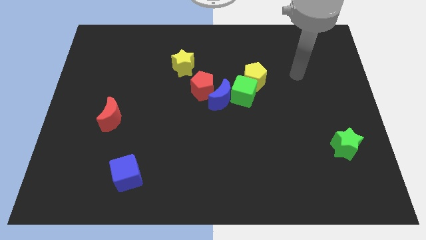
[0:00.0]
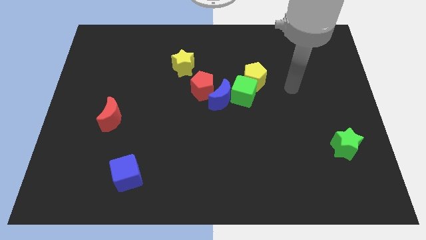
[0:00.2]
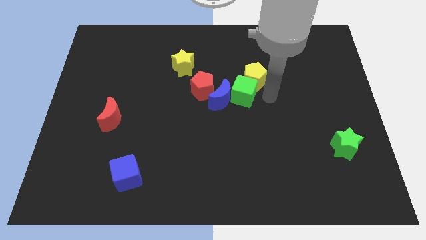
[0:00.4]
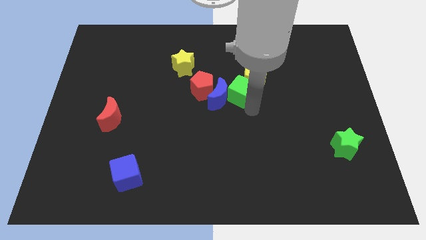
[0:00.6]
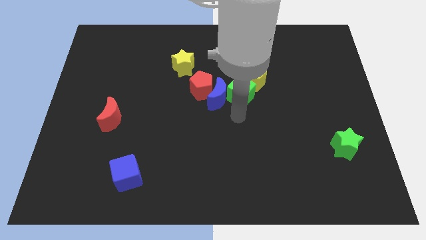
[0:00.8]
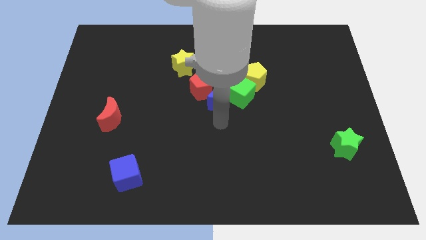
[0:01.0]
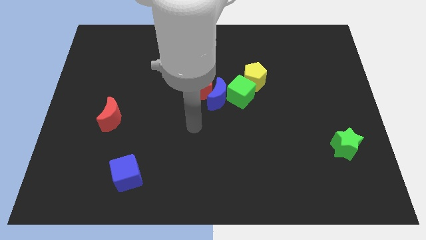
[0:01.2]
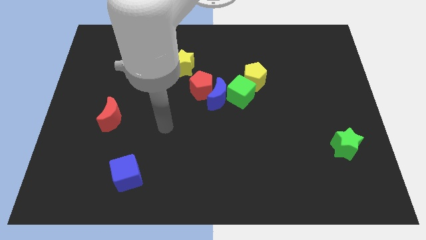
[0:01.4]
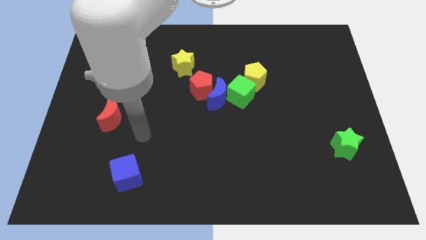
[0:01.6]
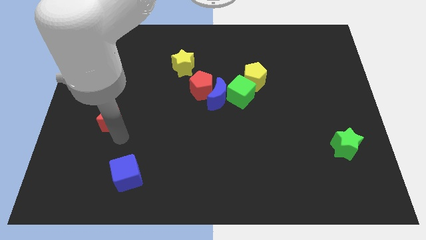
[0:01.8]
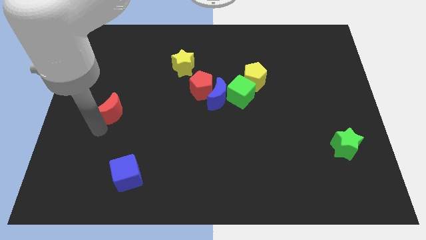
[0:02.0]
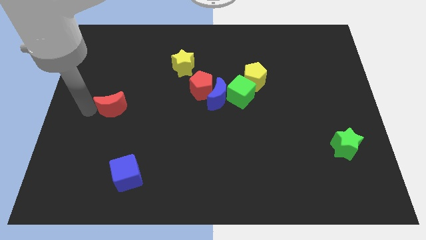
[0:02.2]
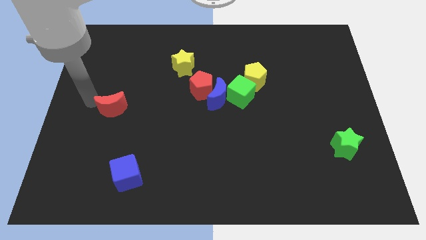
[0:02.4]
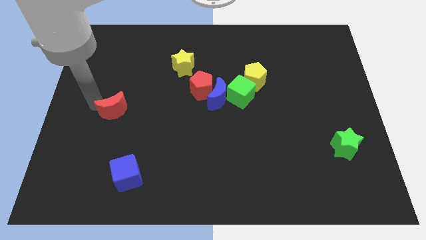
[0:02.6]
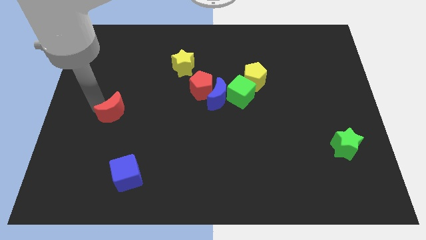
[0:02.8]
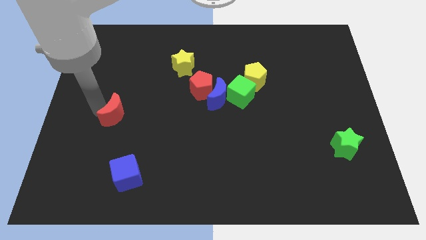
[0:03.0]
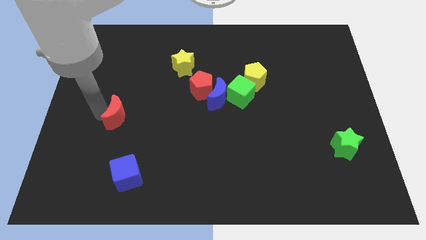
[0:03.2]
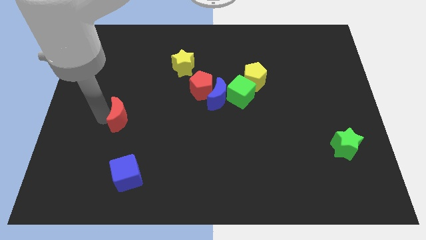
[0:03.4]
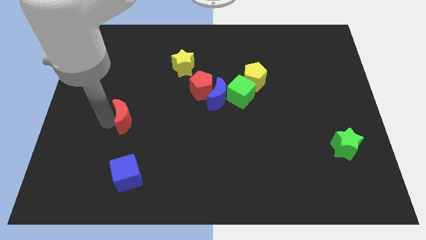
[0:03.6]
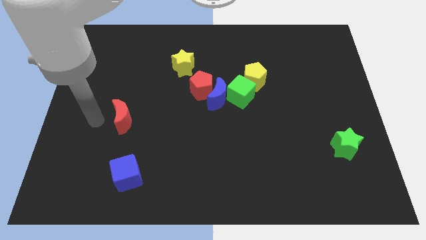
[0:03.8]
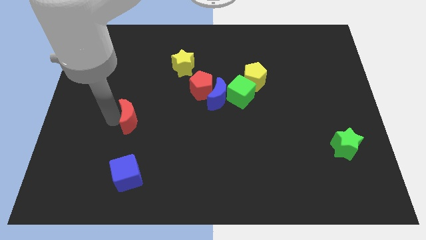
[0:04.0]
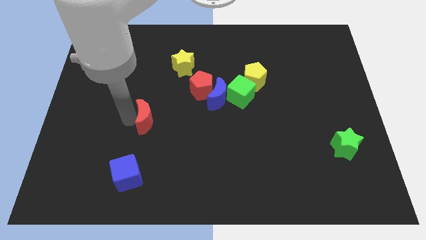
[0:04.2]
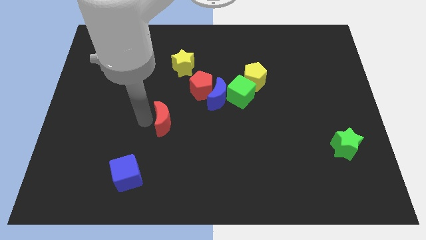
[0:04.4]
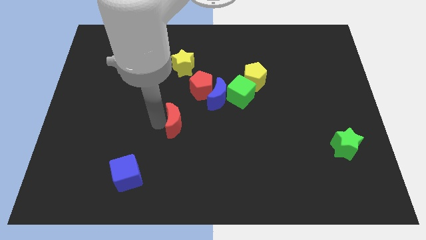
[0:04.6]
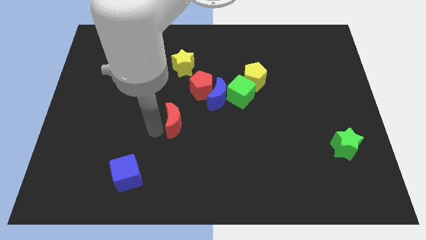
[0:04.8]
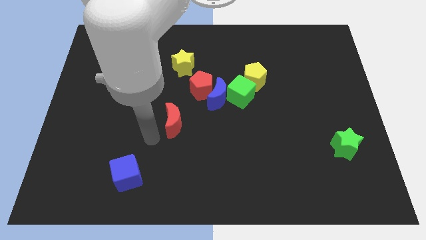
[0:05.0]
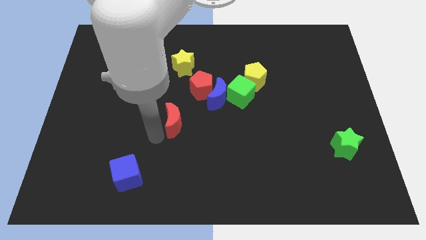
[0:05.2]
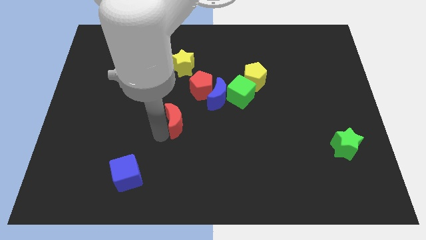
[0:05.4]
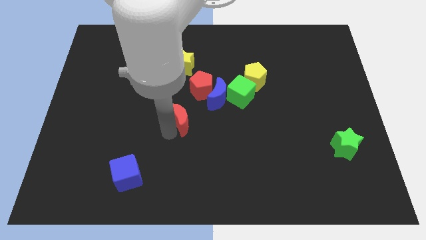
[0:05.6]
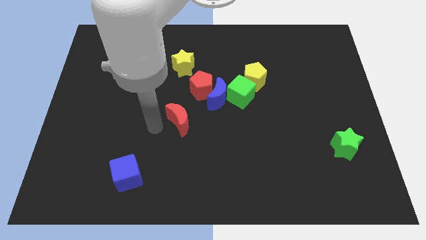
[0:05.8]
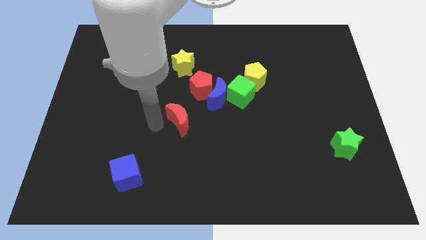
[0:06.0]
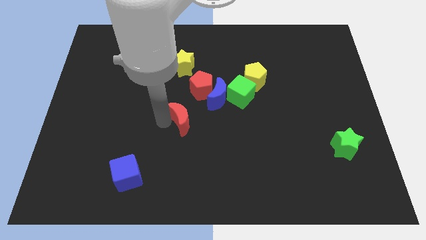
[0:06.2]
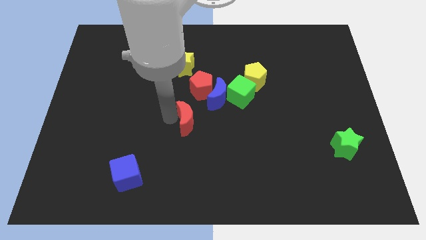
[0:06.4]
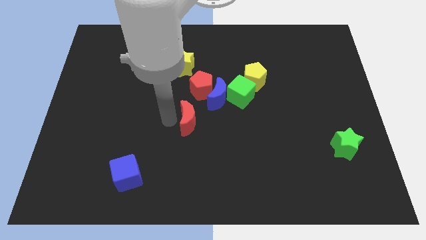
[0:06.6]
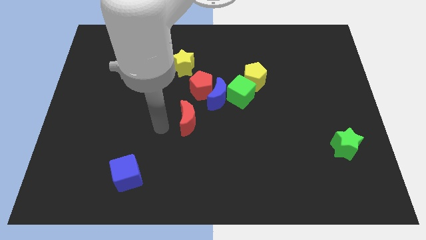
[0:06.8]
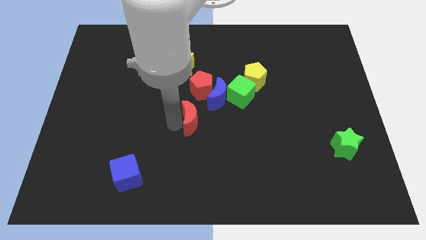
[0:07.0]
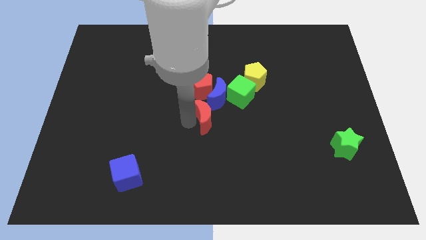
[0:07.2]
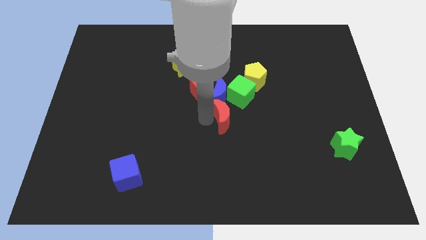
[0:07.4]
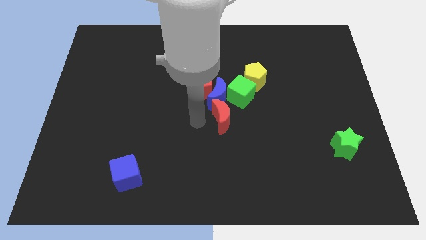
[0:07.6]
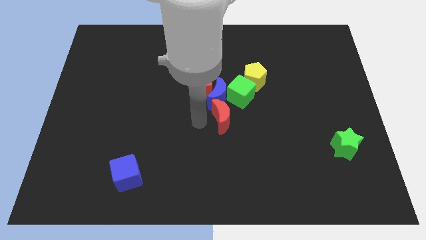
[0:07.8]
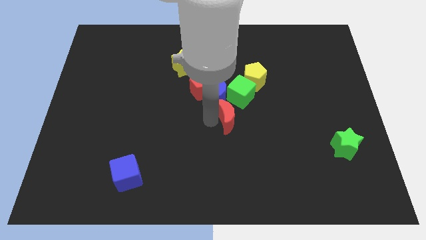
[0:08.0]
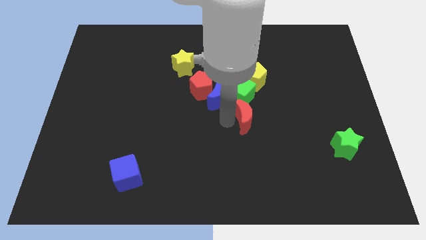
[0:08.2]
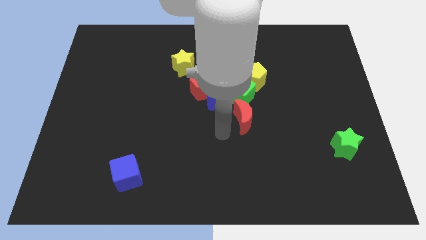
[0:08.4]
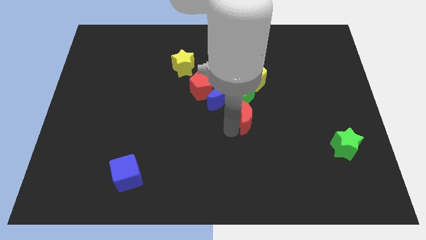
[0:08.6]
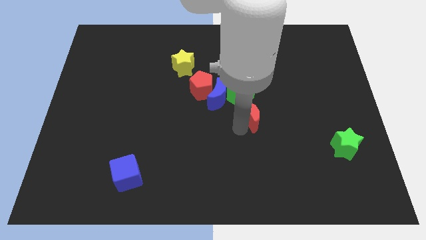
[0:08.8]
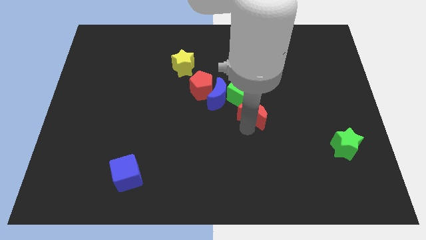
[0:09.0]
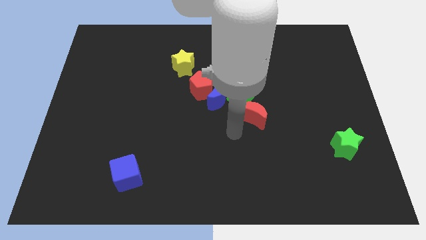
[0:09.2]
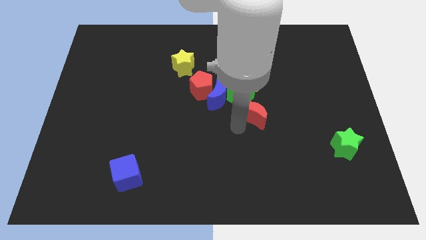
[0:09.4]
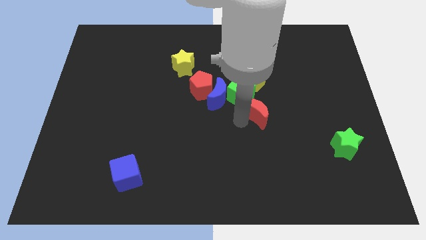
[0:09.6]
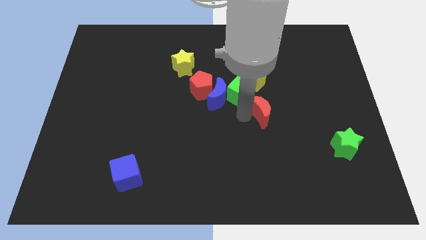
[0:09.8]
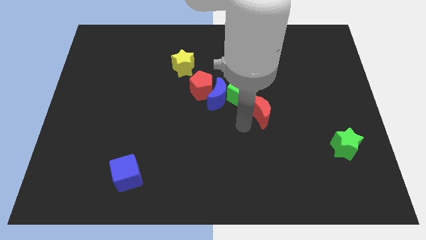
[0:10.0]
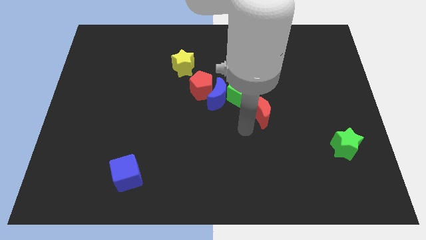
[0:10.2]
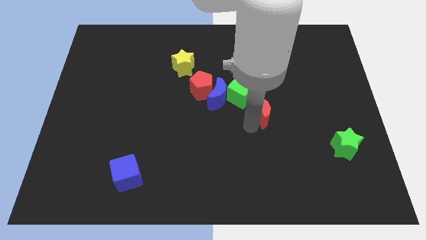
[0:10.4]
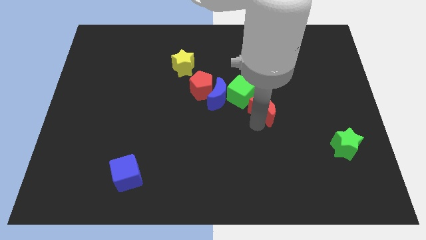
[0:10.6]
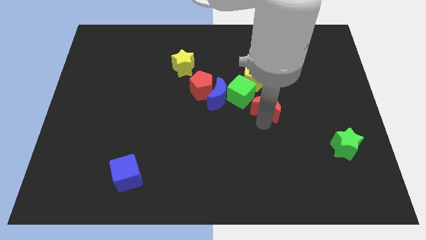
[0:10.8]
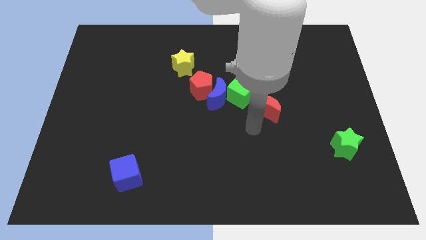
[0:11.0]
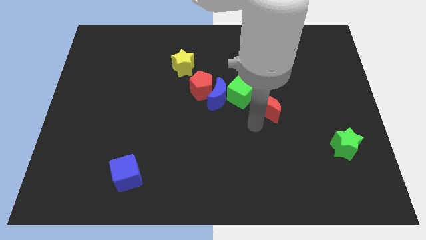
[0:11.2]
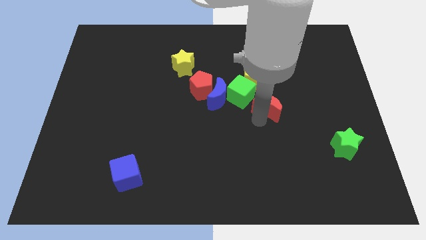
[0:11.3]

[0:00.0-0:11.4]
slide the red moon diagonally down and to the right of the yellow pentagon

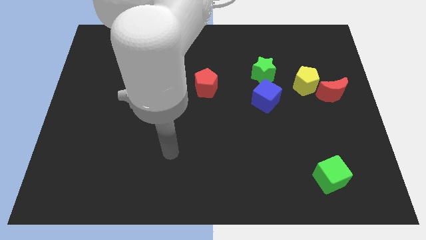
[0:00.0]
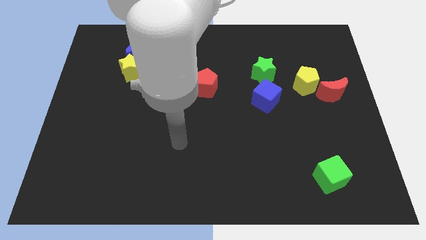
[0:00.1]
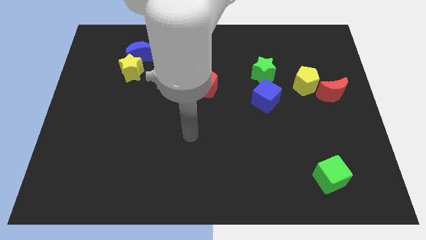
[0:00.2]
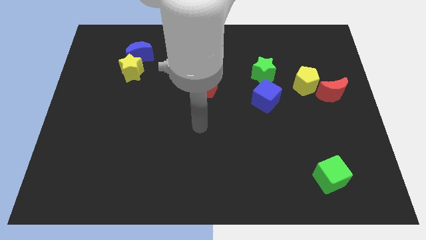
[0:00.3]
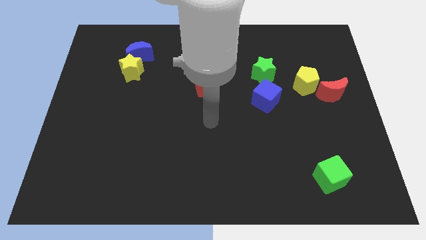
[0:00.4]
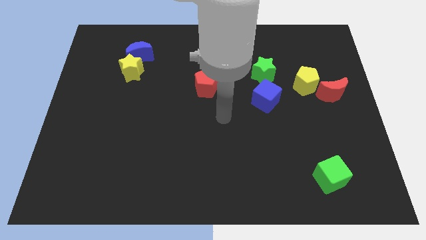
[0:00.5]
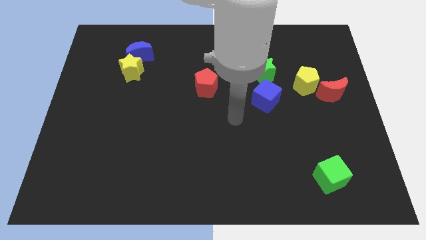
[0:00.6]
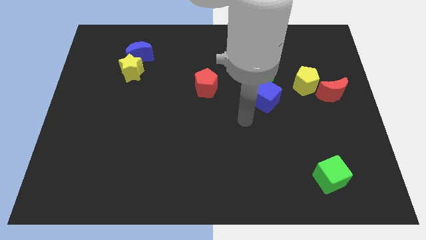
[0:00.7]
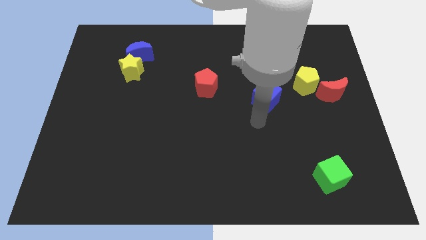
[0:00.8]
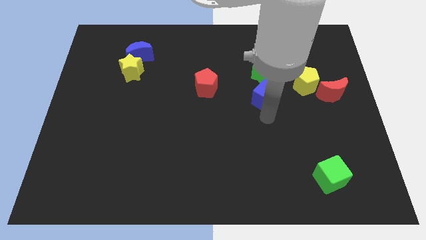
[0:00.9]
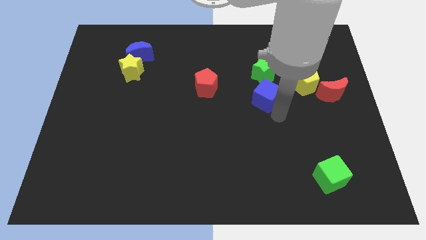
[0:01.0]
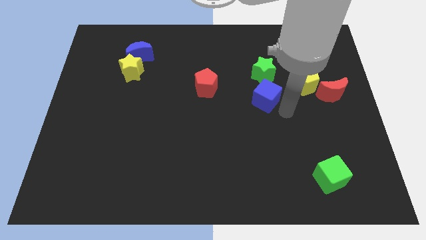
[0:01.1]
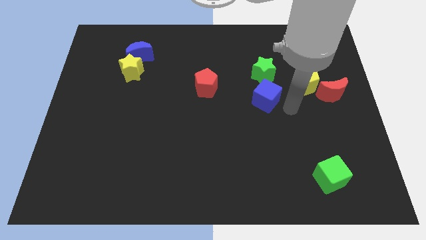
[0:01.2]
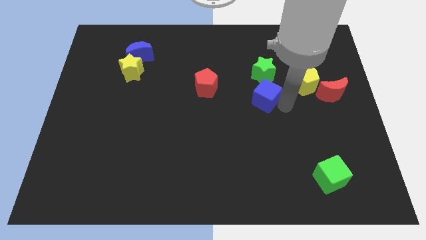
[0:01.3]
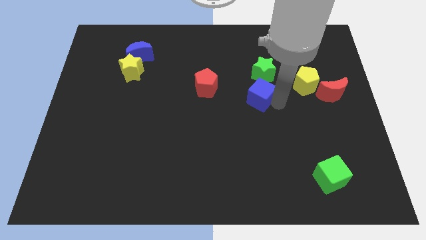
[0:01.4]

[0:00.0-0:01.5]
put the blue cube to the bottom left of the green star

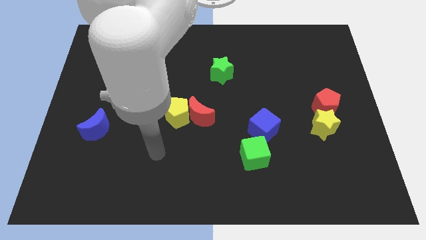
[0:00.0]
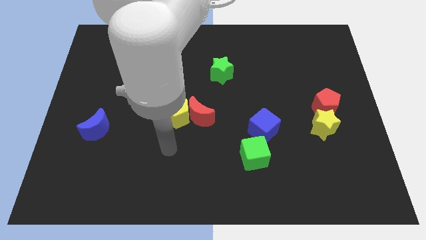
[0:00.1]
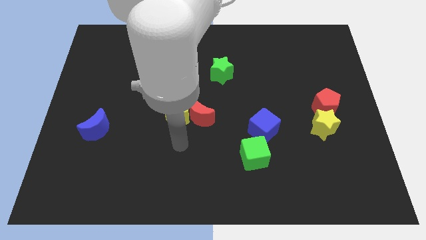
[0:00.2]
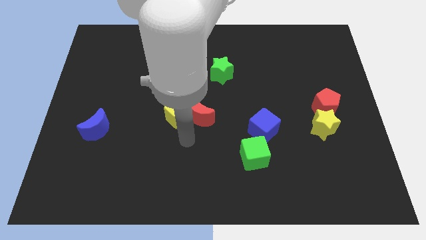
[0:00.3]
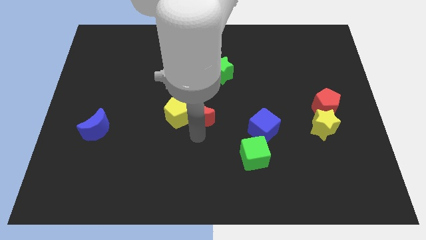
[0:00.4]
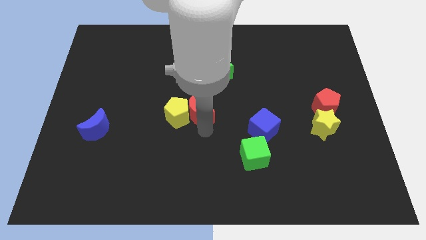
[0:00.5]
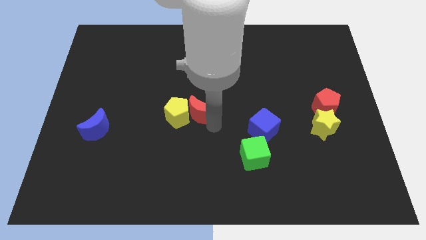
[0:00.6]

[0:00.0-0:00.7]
put the green star to the top of the red moon
